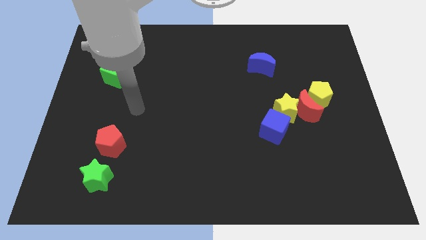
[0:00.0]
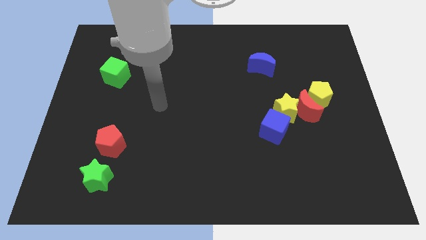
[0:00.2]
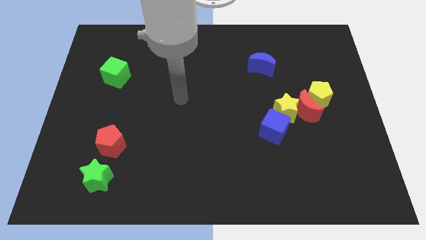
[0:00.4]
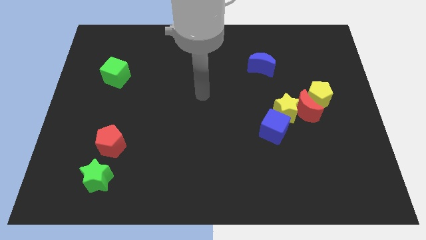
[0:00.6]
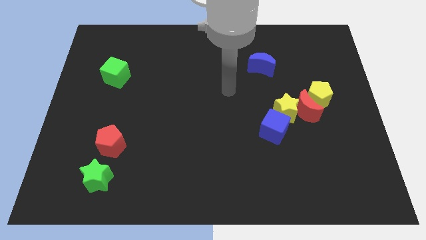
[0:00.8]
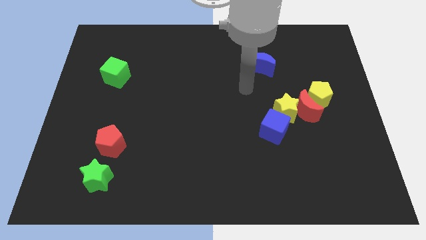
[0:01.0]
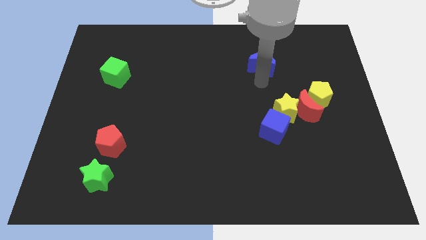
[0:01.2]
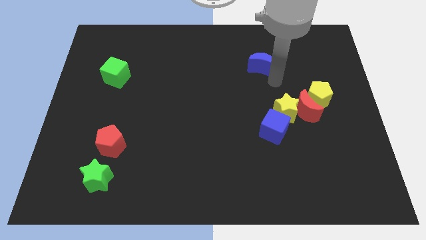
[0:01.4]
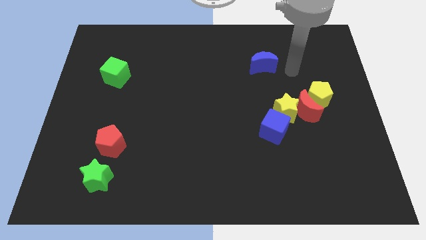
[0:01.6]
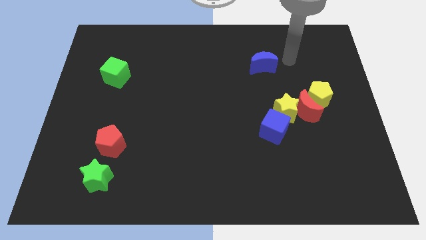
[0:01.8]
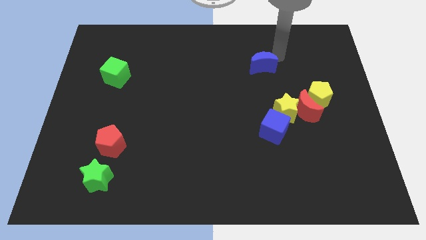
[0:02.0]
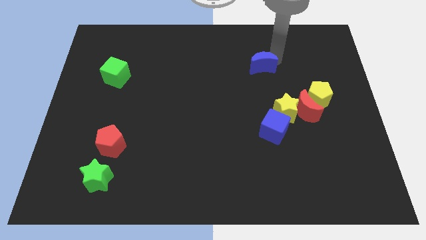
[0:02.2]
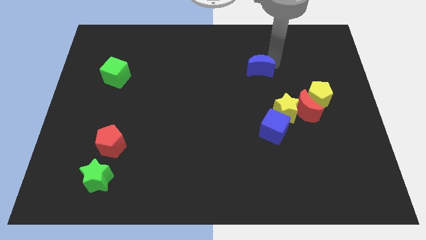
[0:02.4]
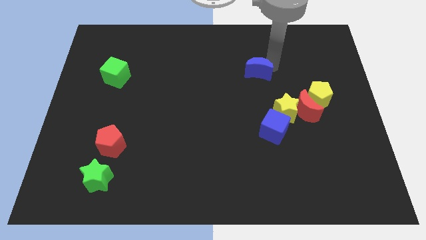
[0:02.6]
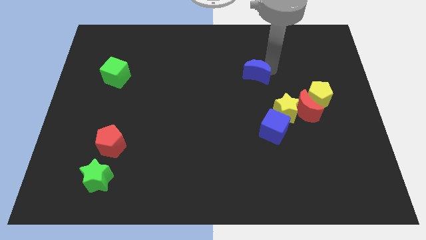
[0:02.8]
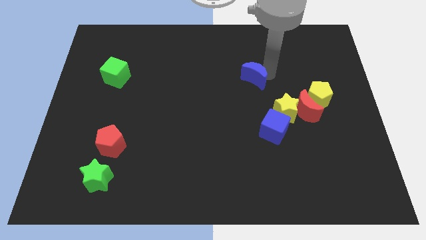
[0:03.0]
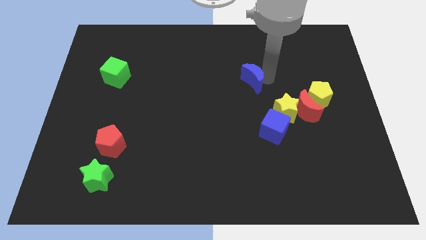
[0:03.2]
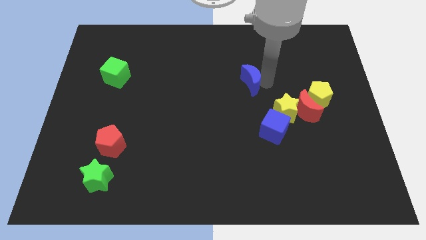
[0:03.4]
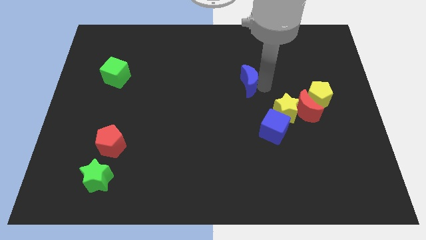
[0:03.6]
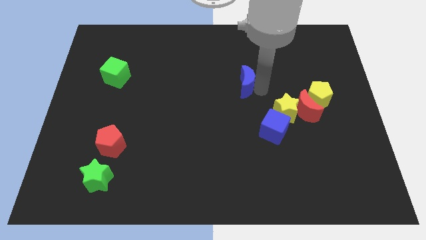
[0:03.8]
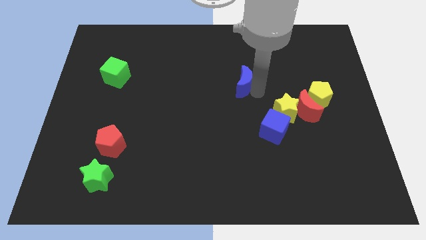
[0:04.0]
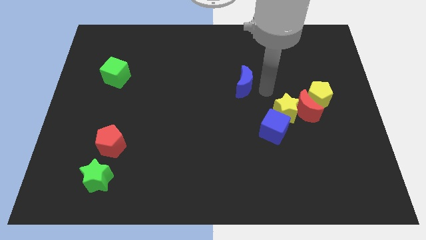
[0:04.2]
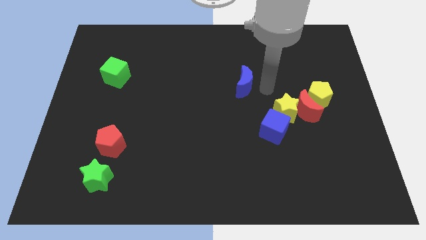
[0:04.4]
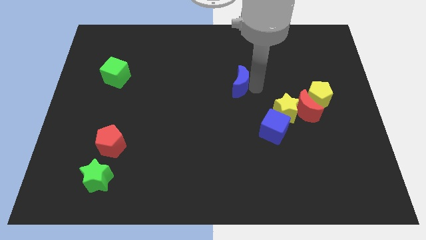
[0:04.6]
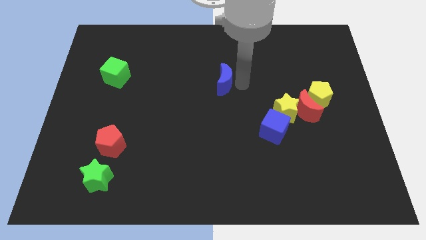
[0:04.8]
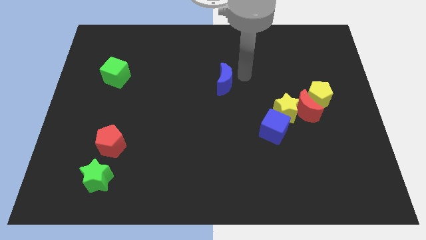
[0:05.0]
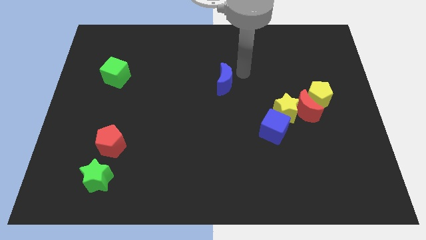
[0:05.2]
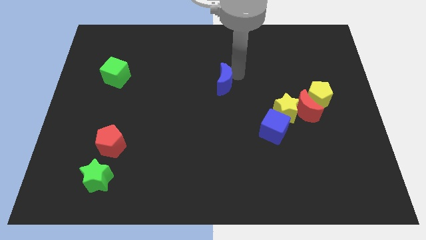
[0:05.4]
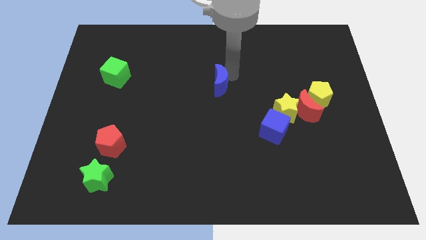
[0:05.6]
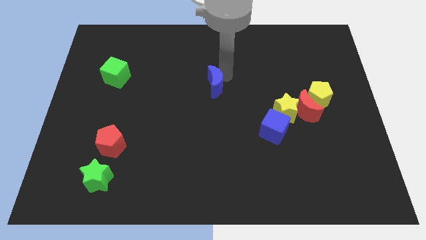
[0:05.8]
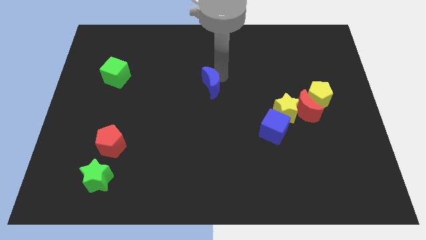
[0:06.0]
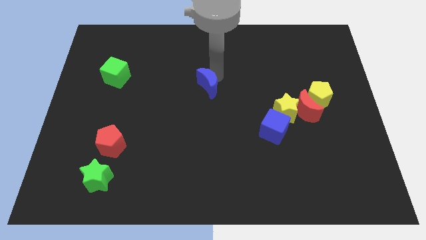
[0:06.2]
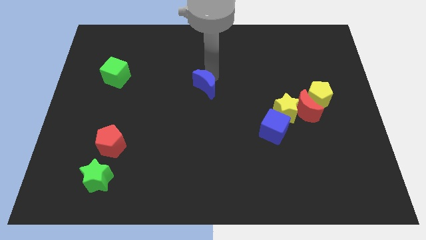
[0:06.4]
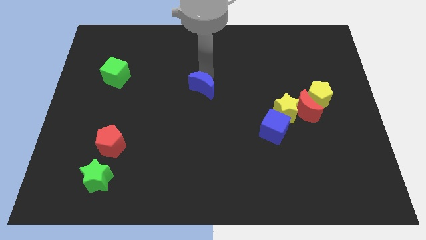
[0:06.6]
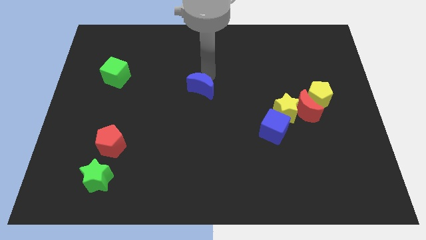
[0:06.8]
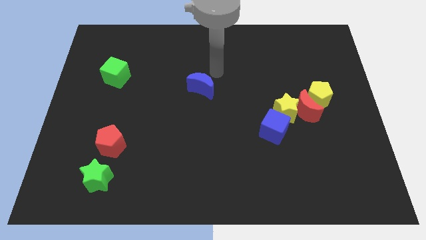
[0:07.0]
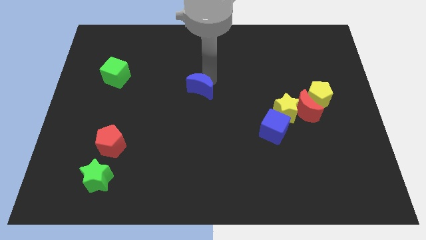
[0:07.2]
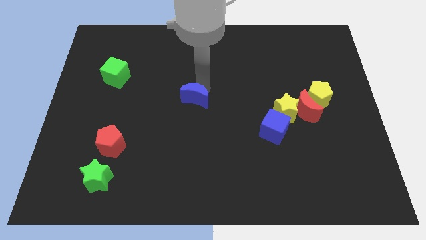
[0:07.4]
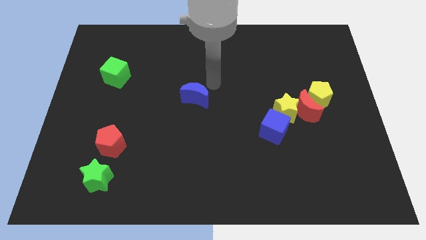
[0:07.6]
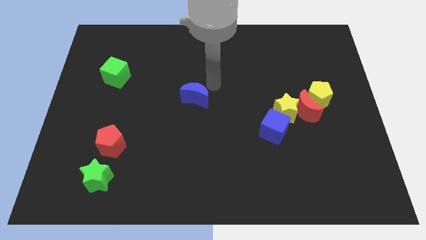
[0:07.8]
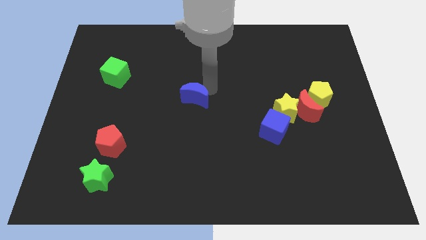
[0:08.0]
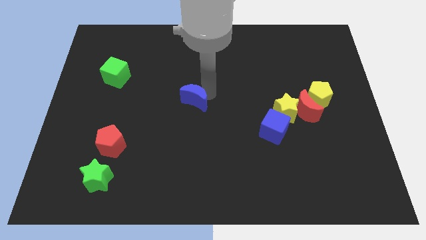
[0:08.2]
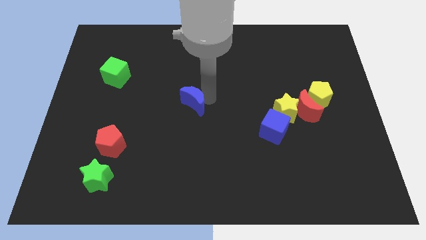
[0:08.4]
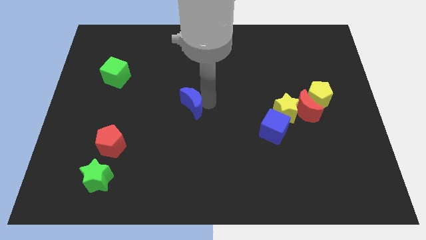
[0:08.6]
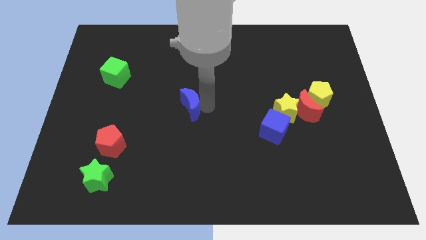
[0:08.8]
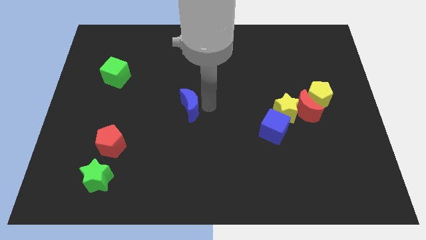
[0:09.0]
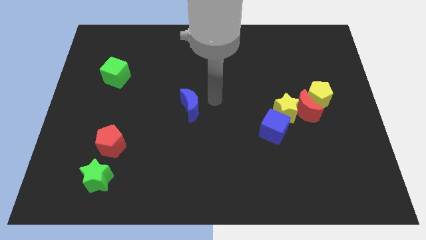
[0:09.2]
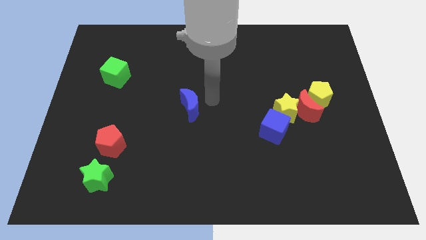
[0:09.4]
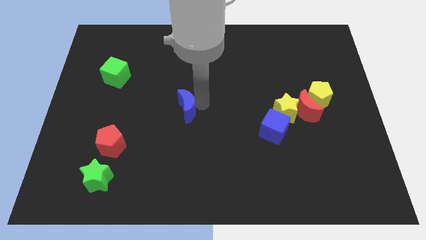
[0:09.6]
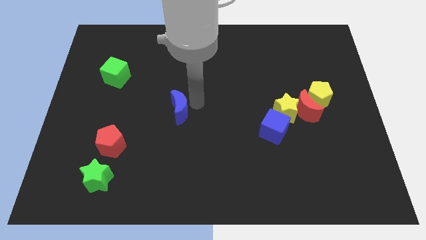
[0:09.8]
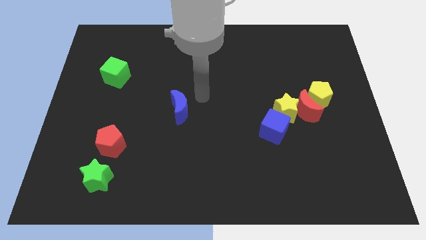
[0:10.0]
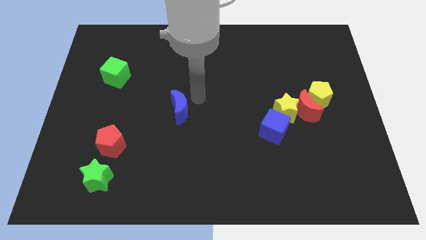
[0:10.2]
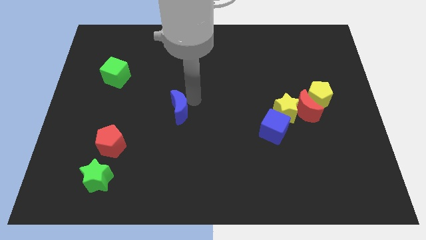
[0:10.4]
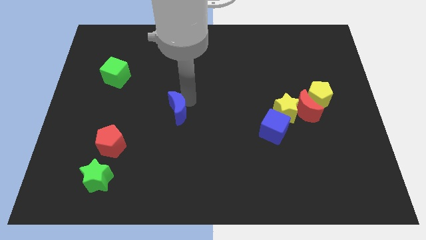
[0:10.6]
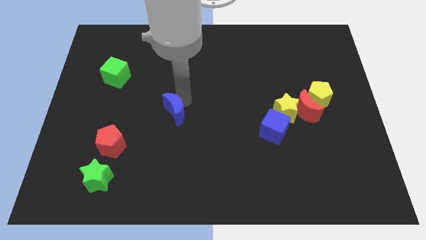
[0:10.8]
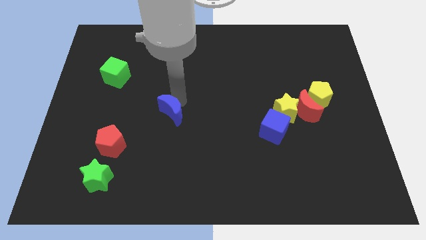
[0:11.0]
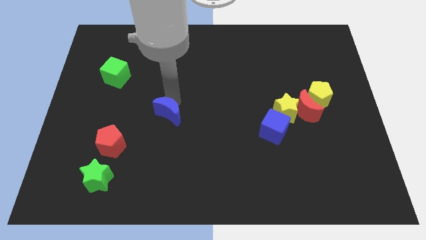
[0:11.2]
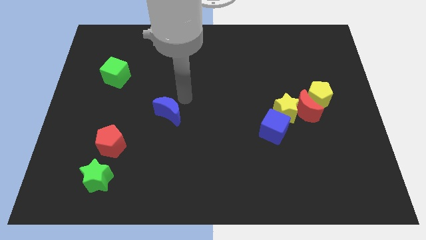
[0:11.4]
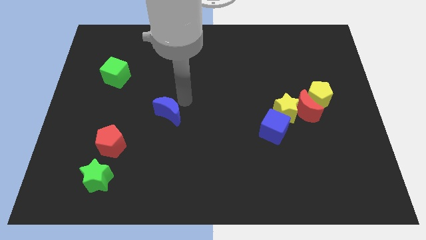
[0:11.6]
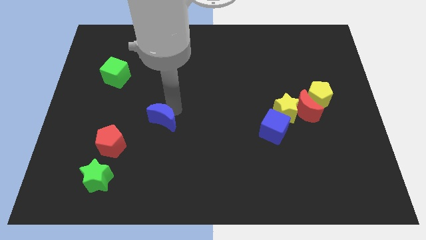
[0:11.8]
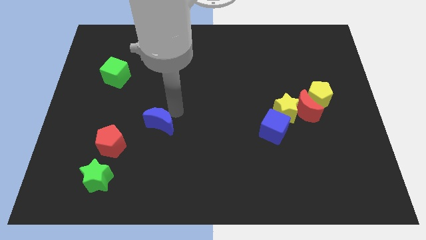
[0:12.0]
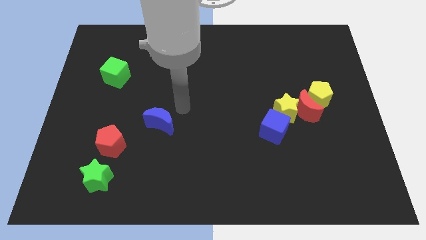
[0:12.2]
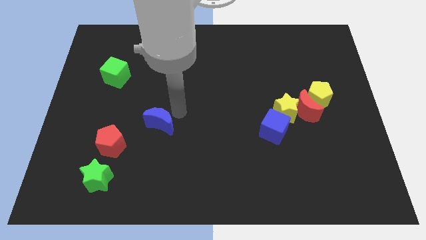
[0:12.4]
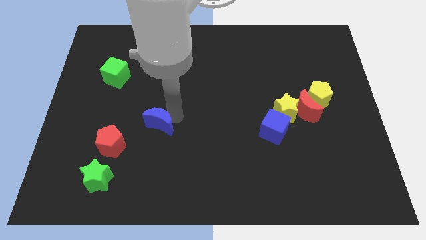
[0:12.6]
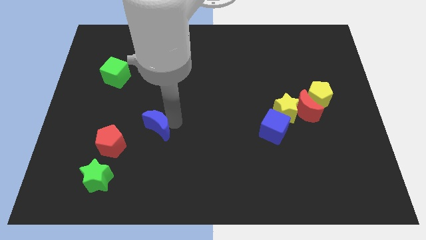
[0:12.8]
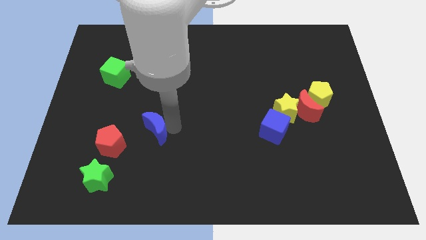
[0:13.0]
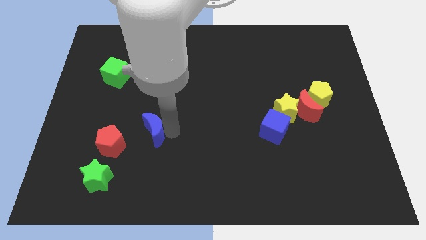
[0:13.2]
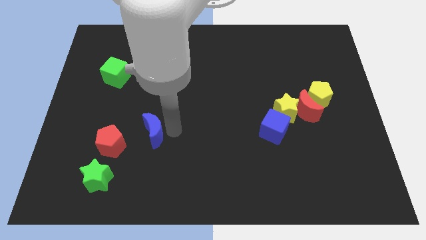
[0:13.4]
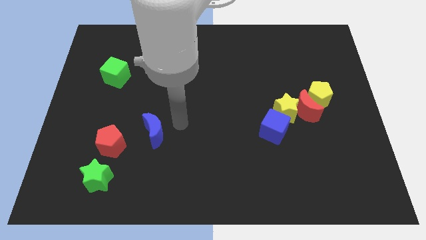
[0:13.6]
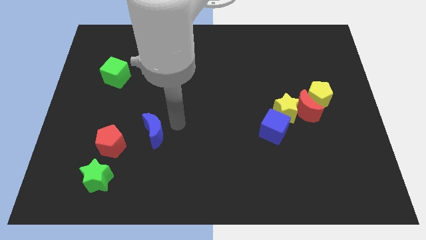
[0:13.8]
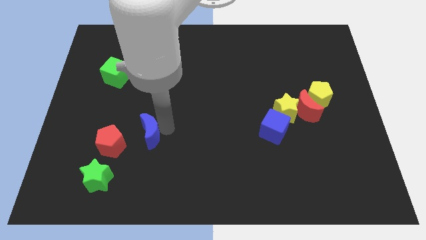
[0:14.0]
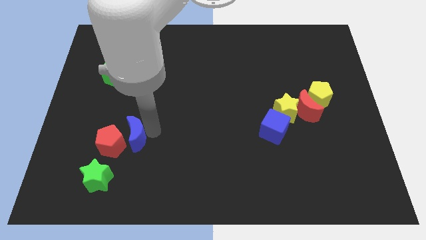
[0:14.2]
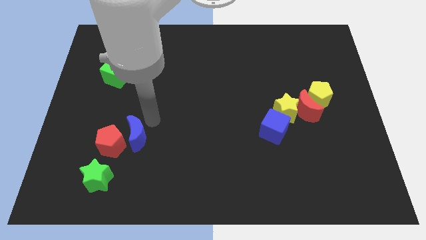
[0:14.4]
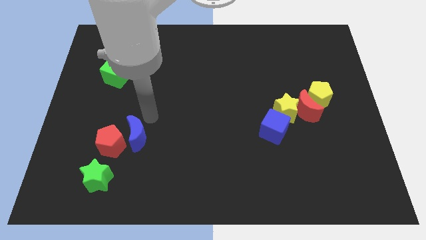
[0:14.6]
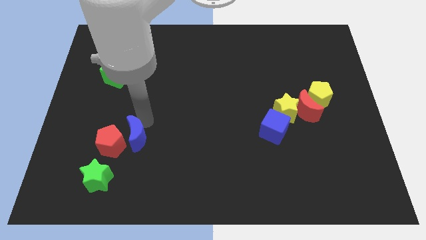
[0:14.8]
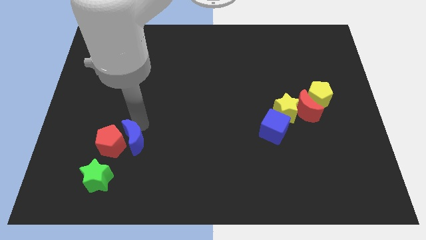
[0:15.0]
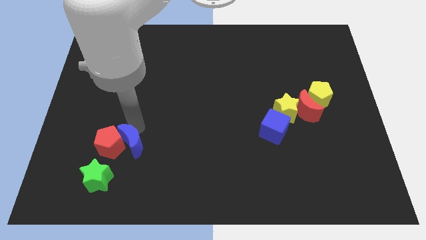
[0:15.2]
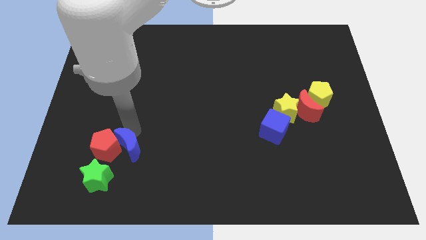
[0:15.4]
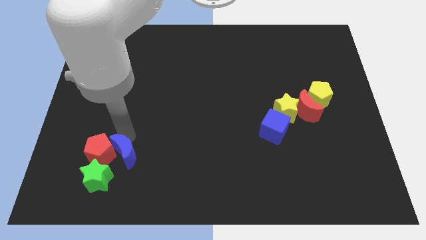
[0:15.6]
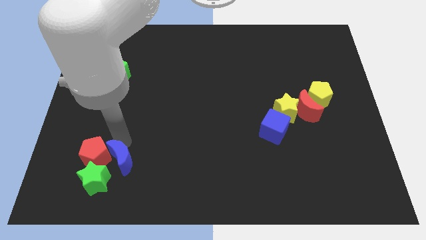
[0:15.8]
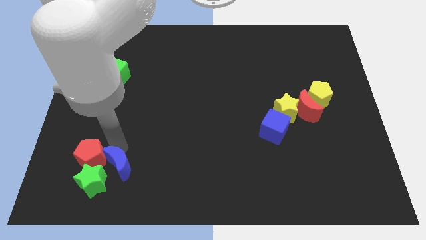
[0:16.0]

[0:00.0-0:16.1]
slide the blue moon next to the green star
